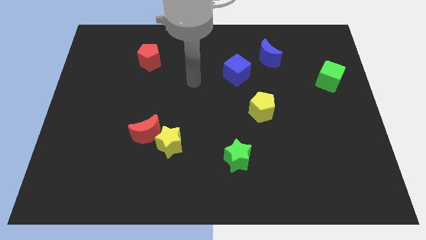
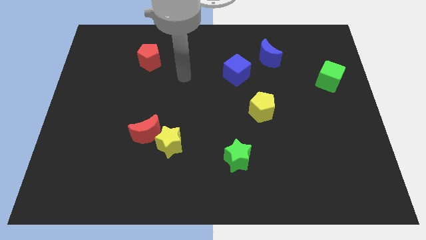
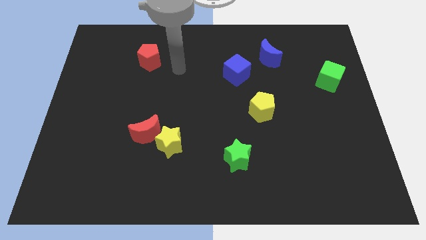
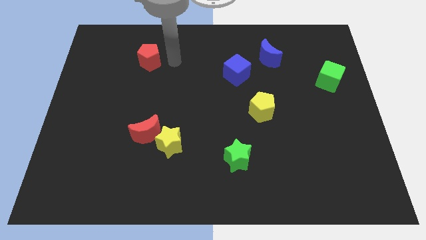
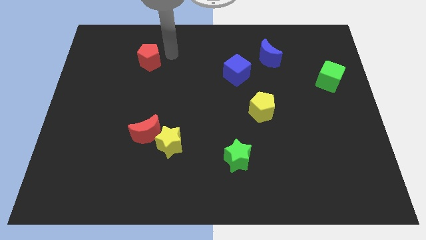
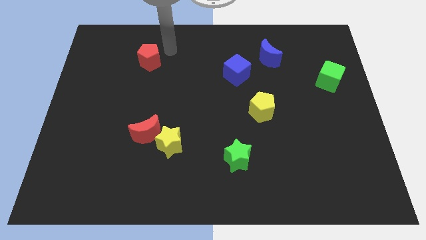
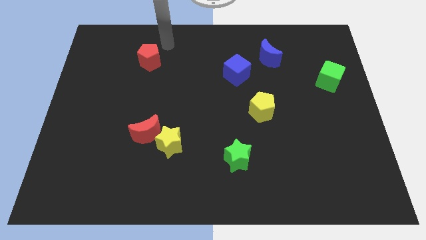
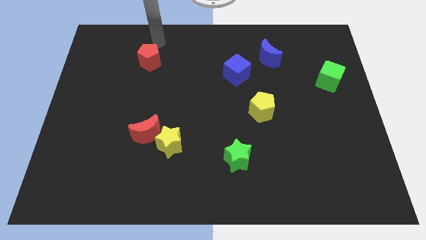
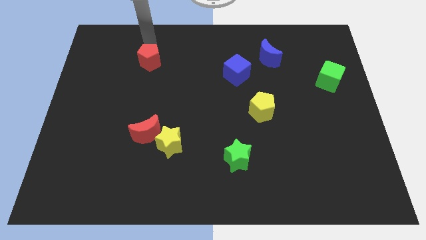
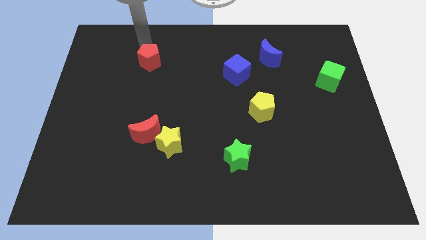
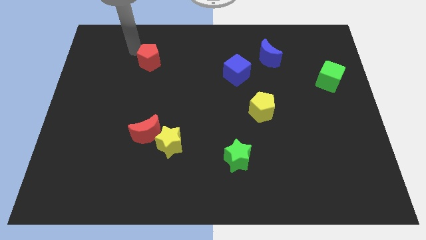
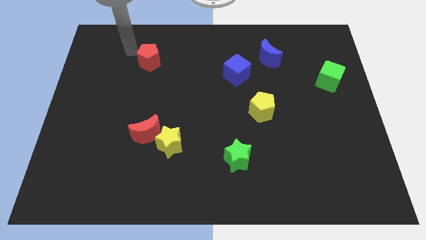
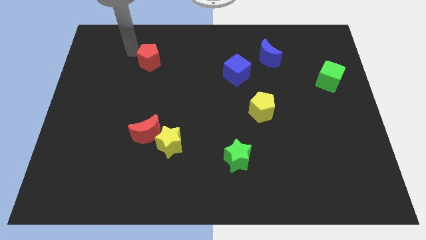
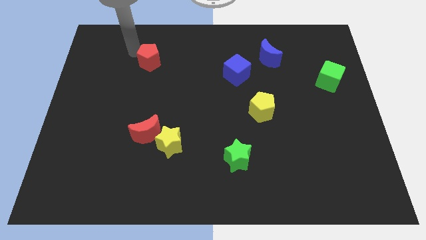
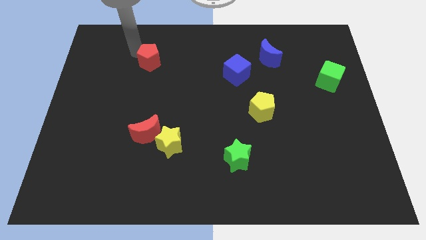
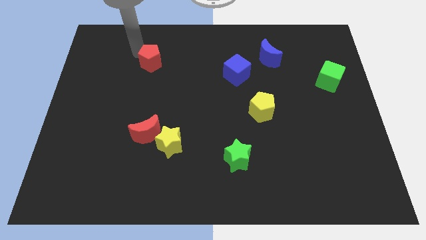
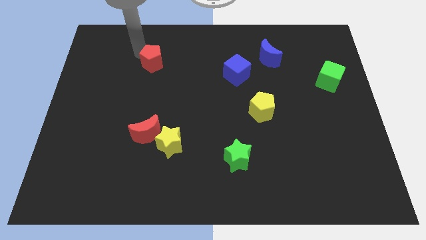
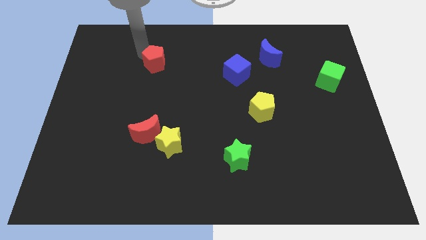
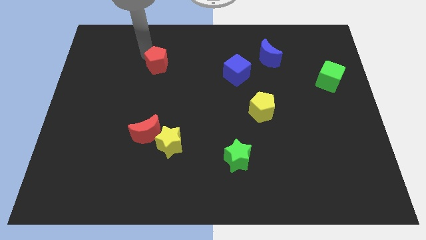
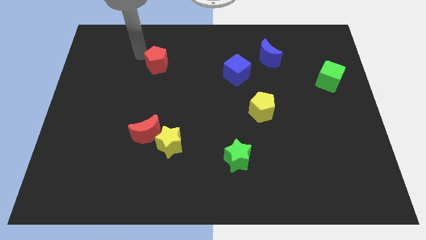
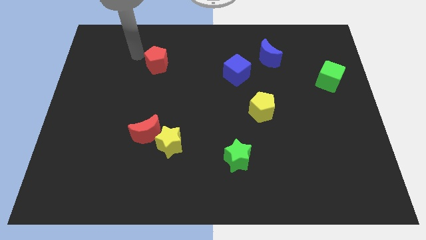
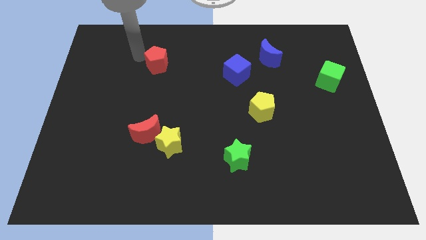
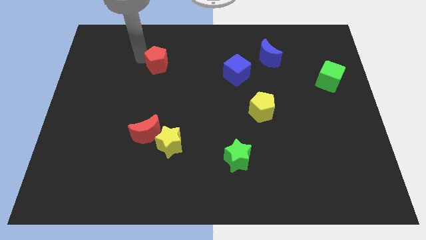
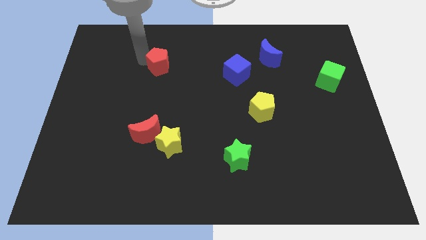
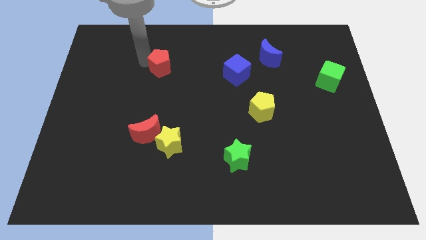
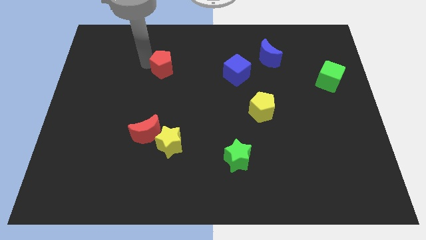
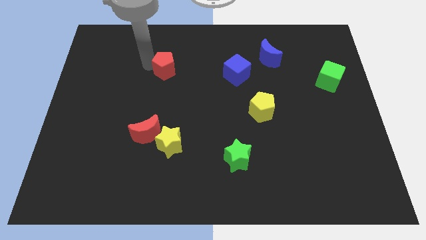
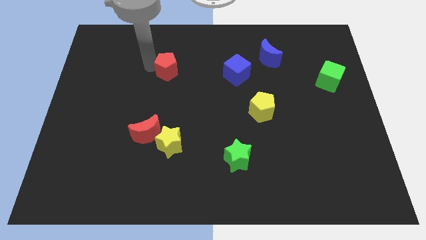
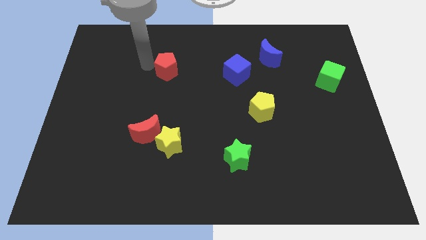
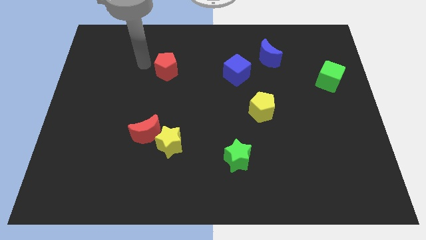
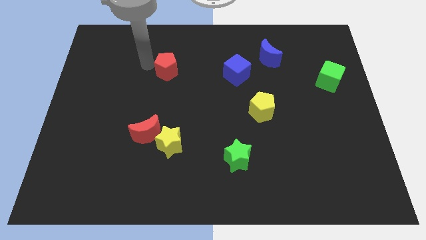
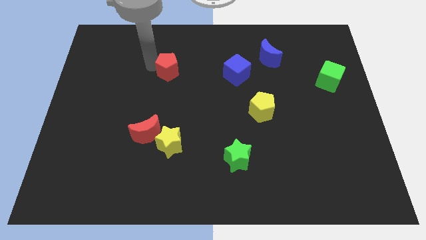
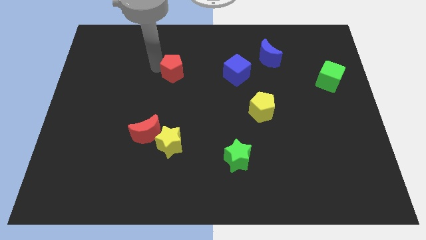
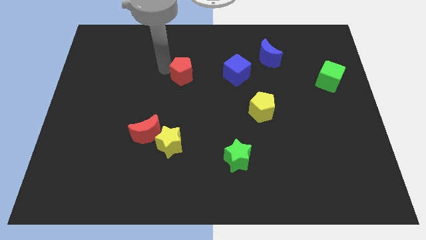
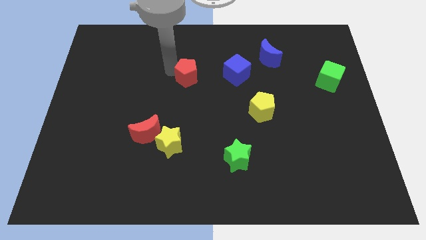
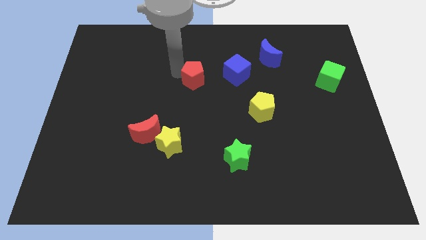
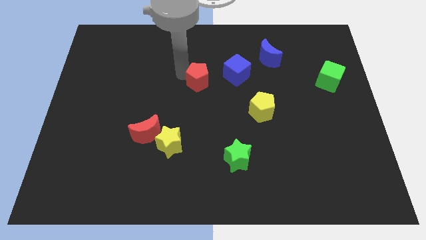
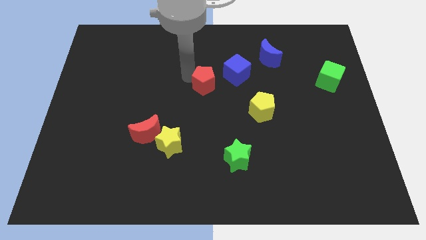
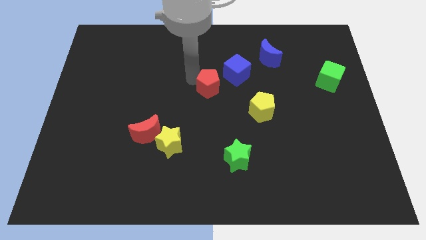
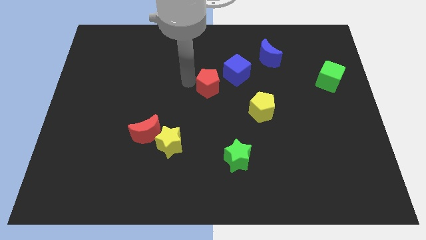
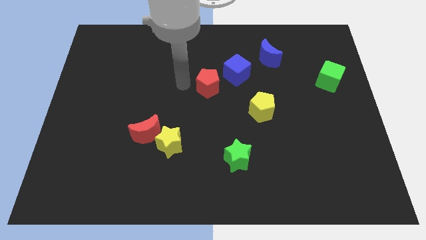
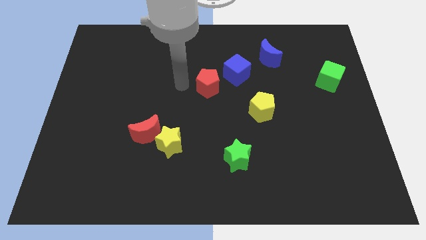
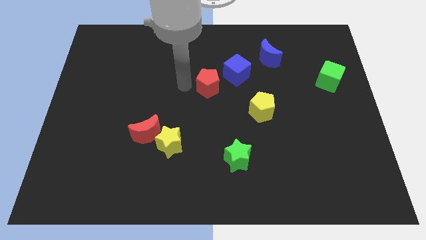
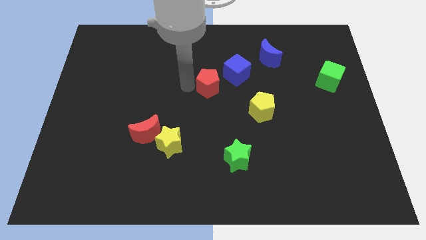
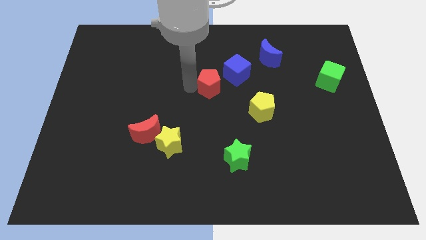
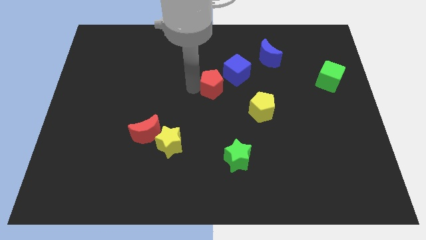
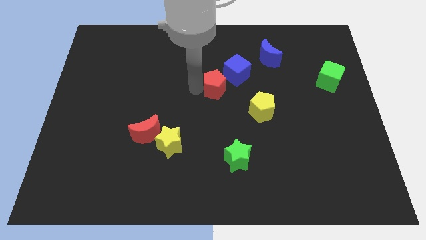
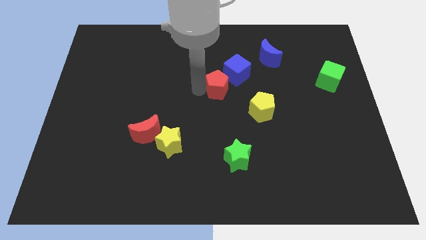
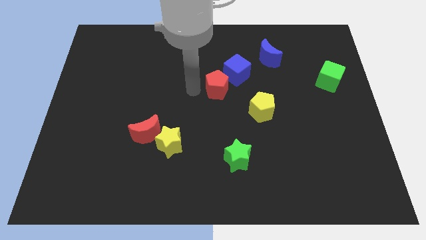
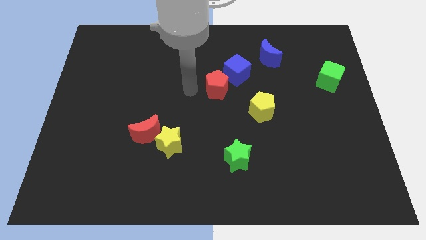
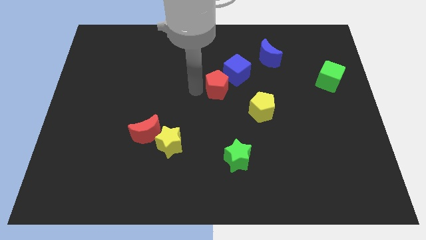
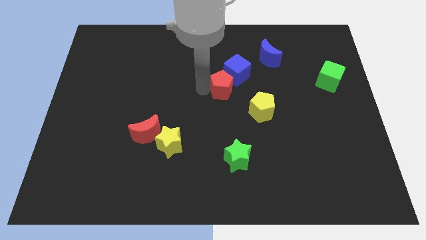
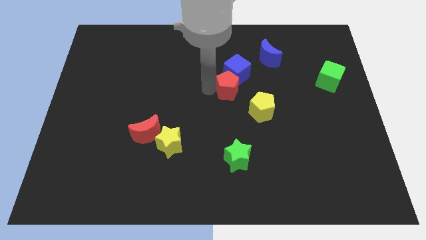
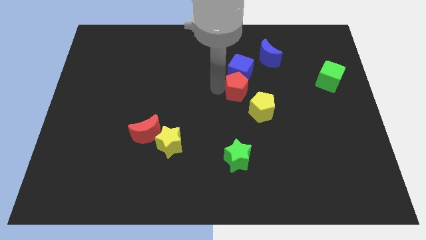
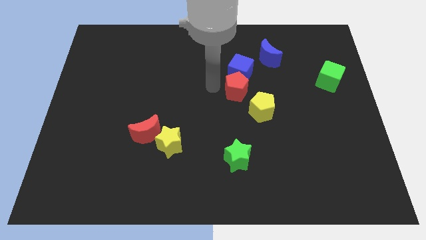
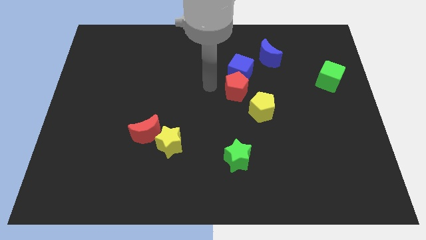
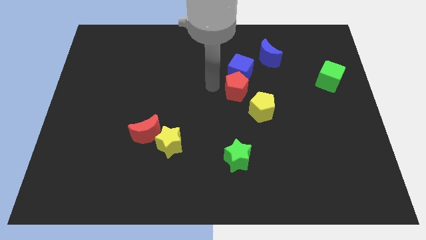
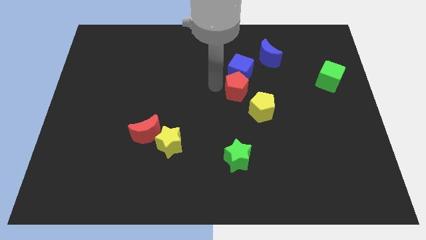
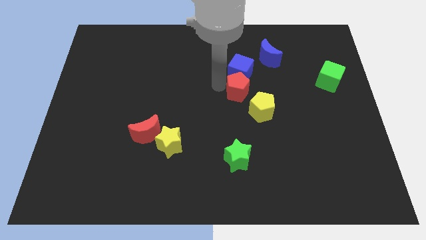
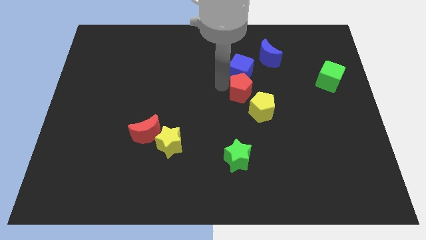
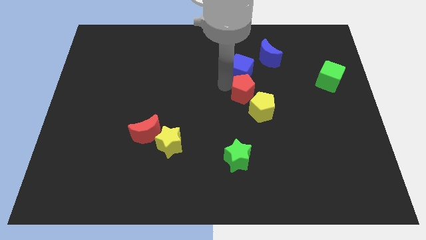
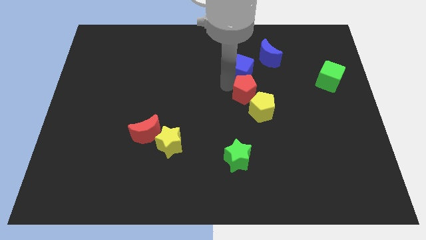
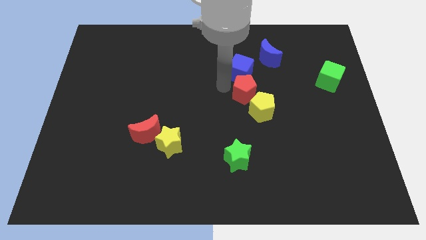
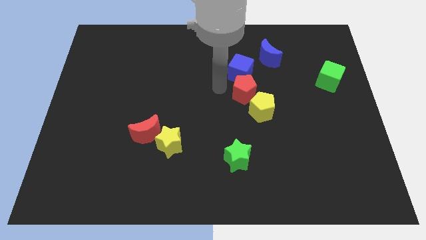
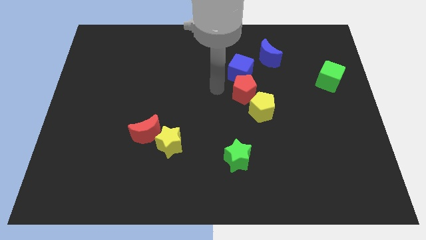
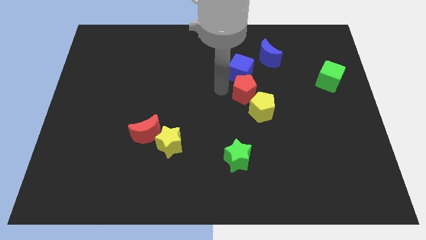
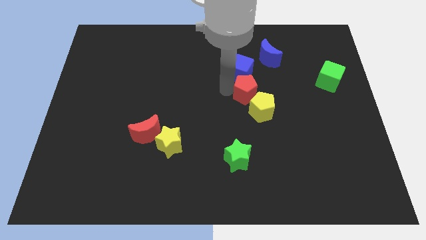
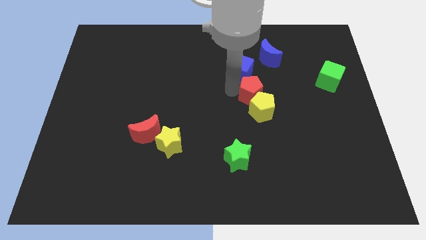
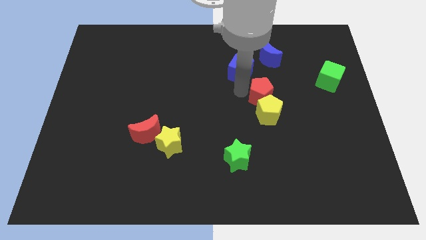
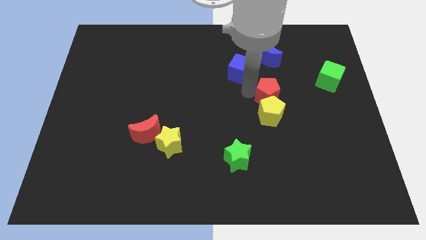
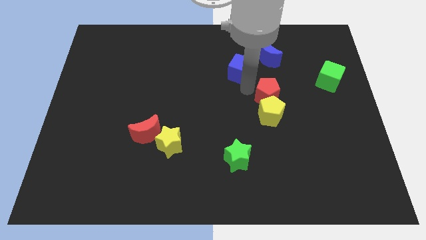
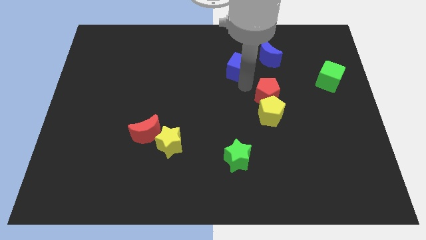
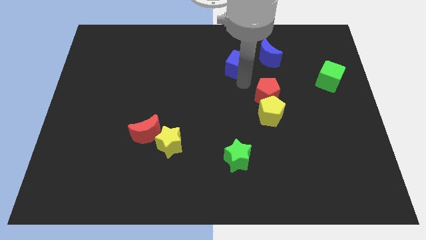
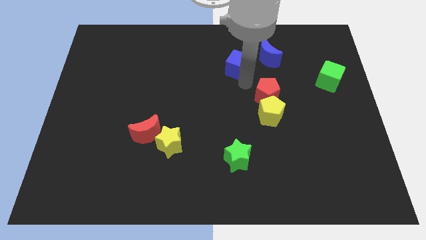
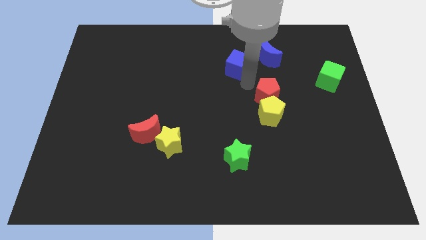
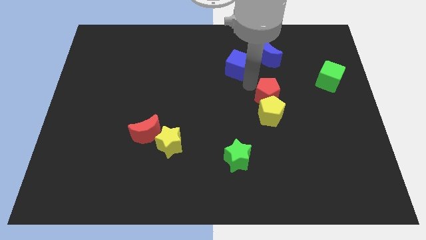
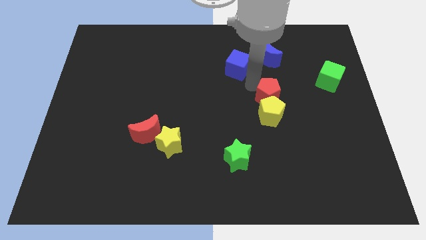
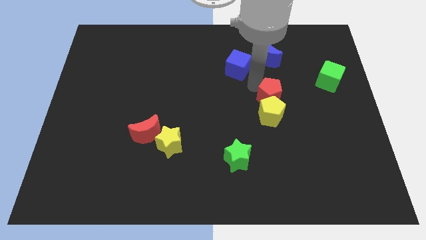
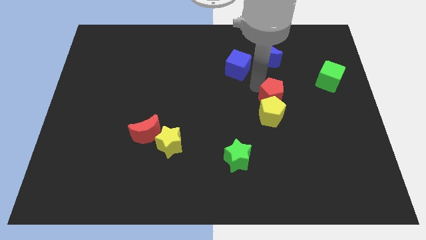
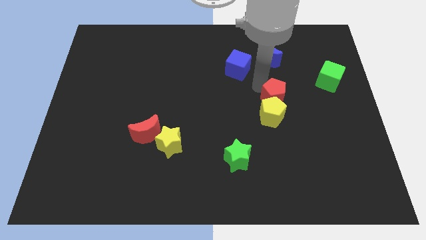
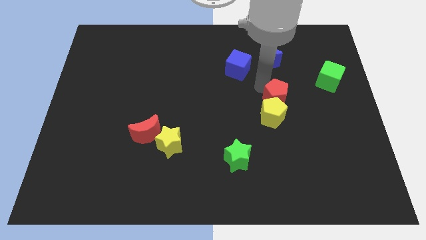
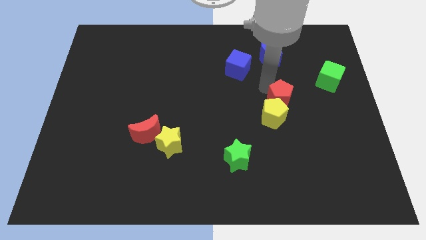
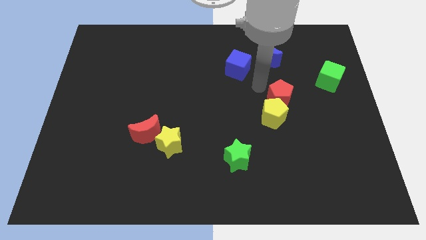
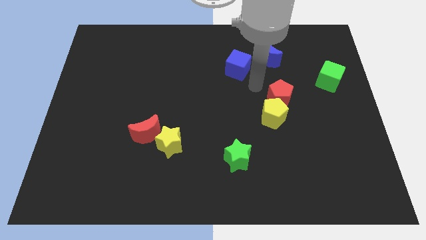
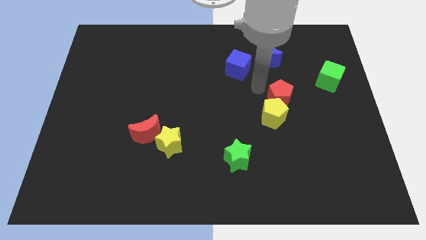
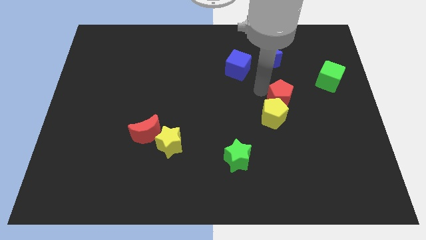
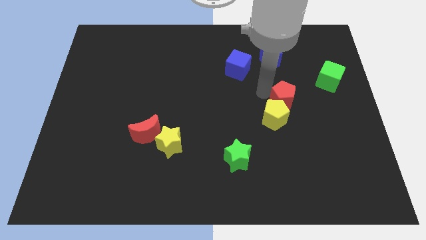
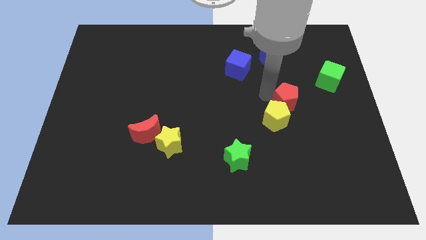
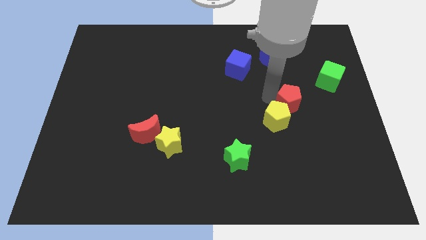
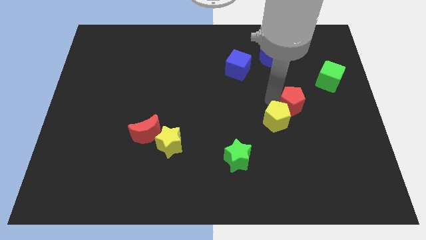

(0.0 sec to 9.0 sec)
push the red pentagon to the right side of the yellow pentagon
